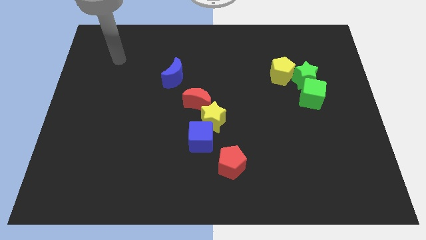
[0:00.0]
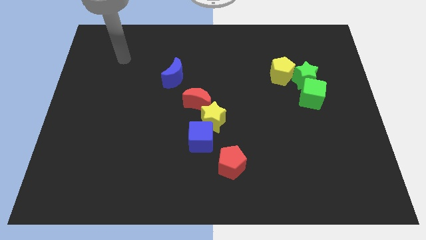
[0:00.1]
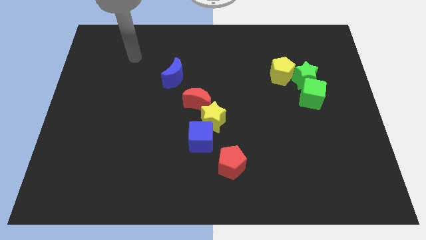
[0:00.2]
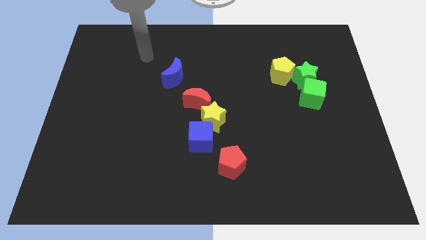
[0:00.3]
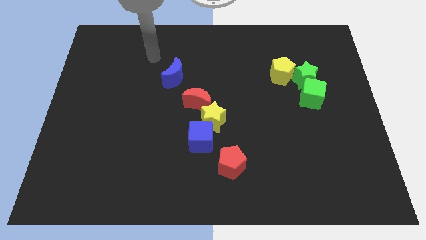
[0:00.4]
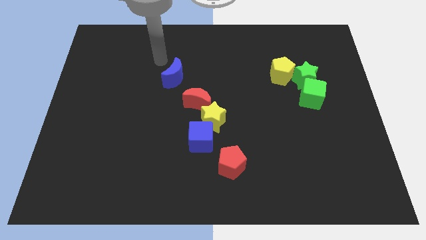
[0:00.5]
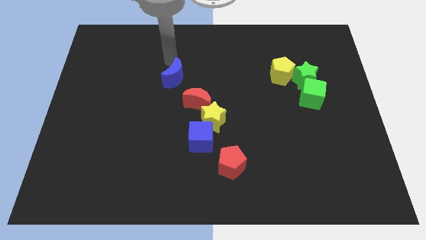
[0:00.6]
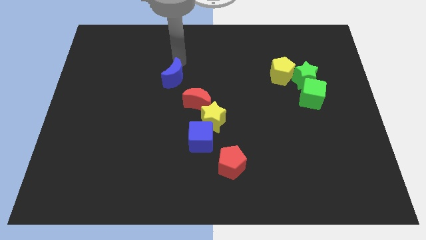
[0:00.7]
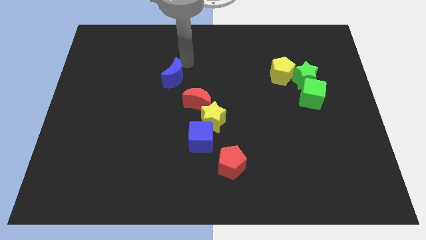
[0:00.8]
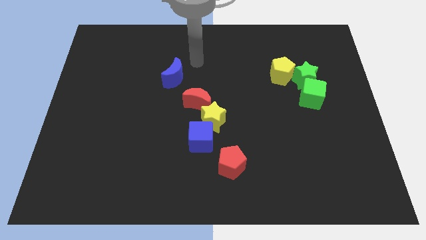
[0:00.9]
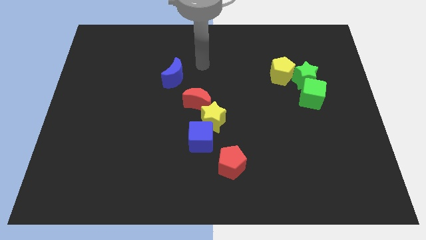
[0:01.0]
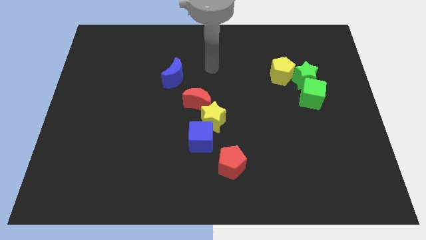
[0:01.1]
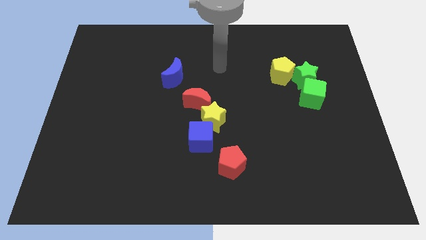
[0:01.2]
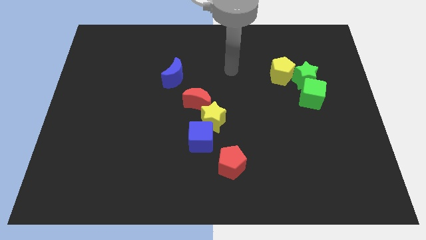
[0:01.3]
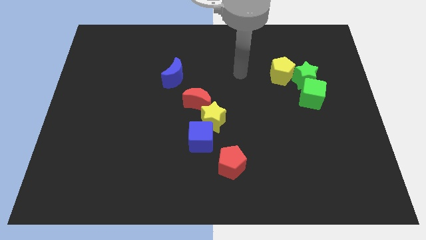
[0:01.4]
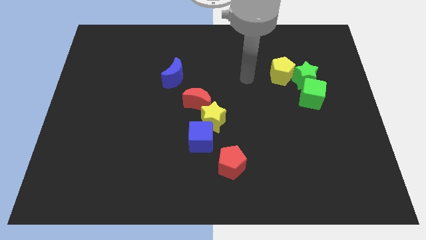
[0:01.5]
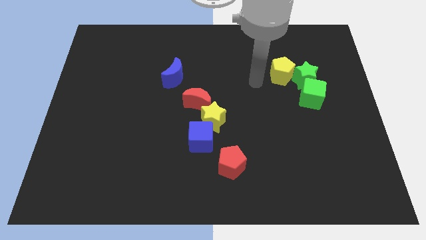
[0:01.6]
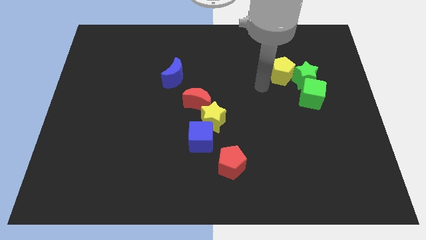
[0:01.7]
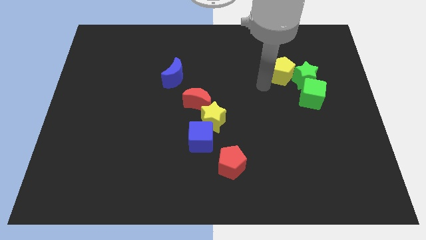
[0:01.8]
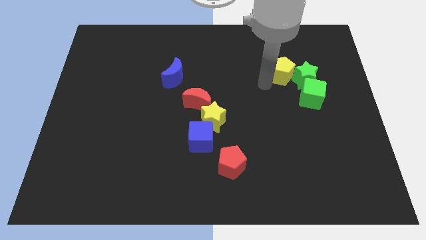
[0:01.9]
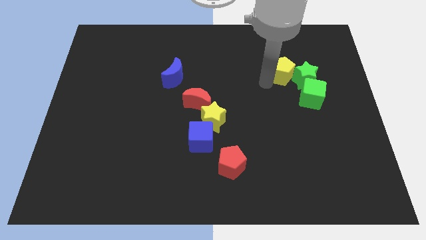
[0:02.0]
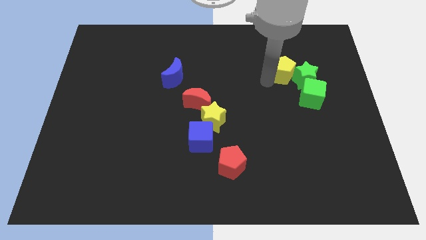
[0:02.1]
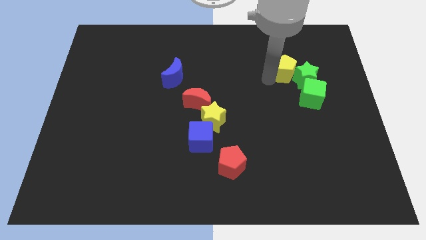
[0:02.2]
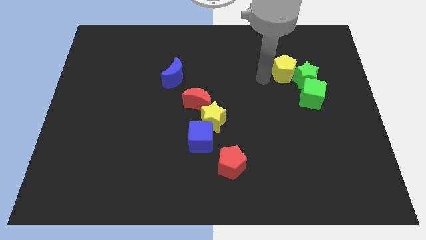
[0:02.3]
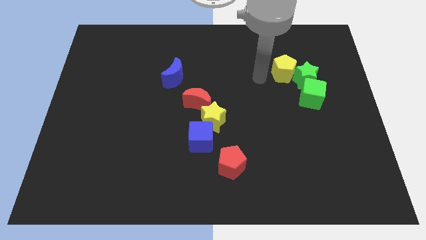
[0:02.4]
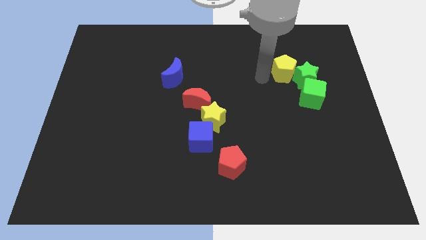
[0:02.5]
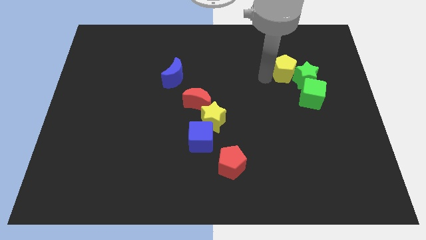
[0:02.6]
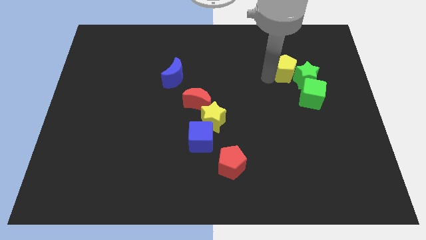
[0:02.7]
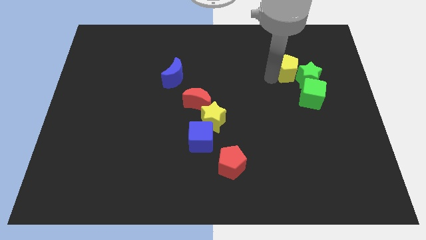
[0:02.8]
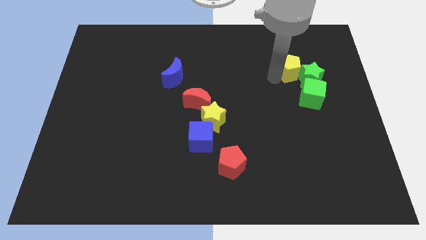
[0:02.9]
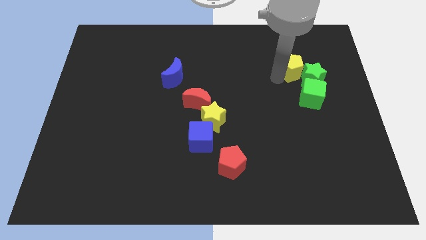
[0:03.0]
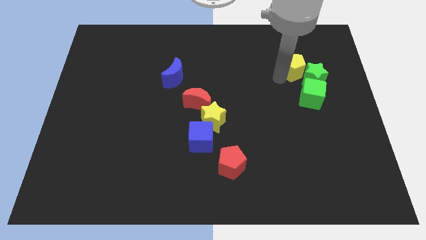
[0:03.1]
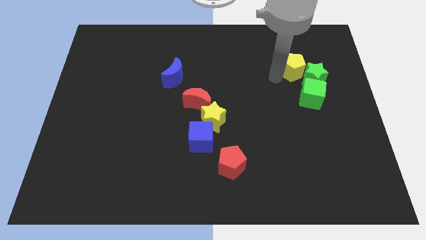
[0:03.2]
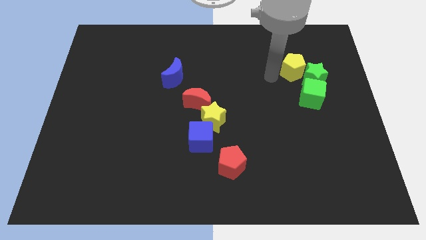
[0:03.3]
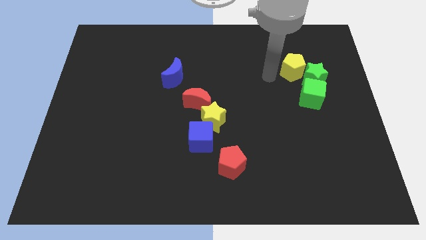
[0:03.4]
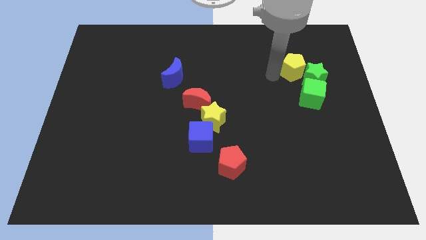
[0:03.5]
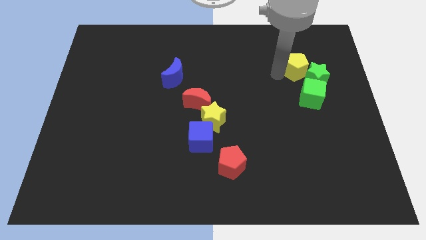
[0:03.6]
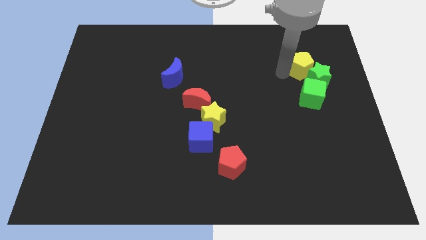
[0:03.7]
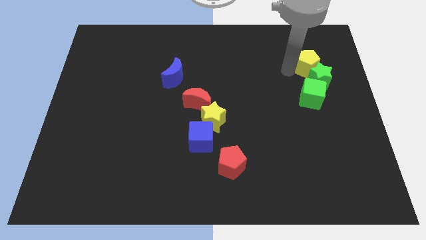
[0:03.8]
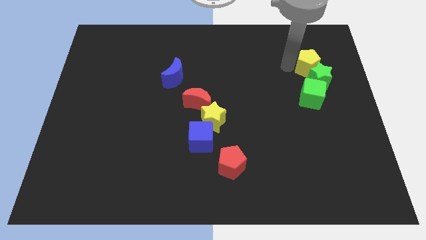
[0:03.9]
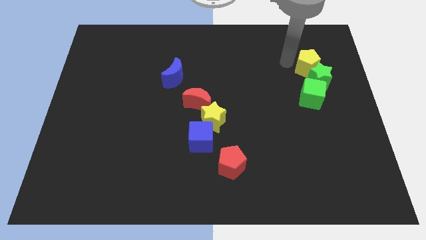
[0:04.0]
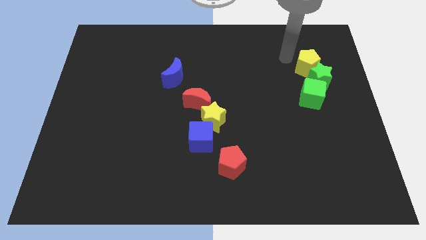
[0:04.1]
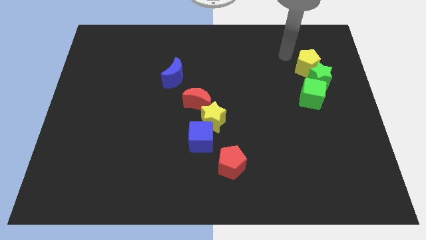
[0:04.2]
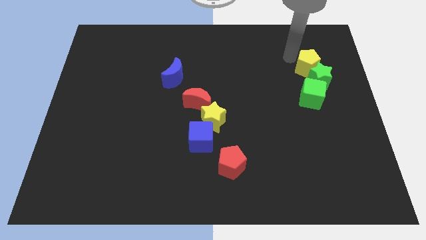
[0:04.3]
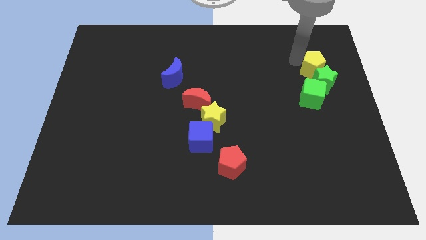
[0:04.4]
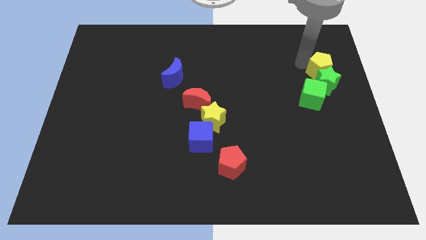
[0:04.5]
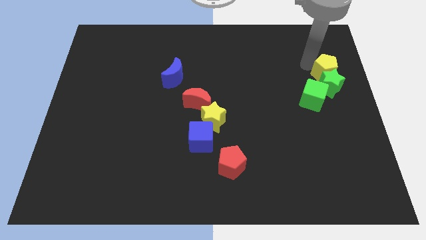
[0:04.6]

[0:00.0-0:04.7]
put the yellow pentagon to the right side of the board

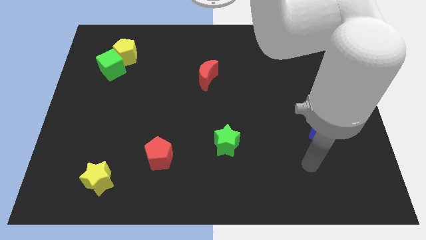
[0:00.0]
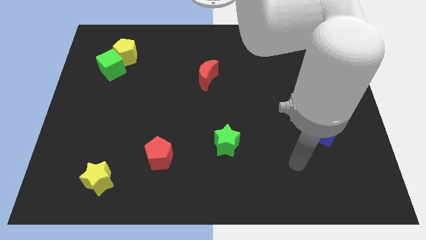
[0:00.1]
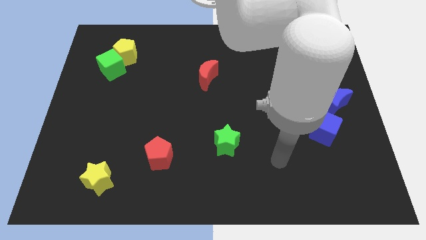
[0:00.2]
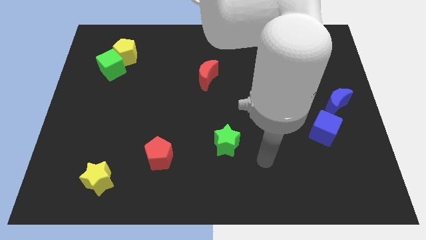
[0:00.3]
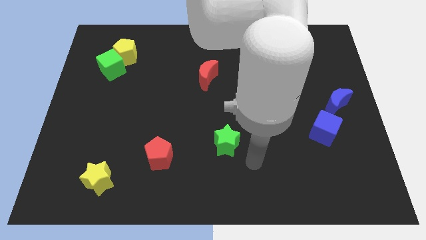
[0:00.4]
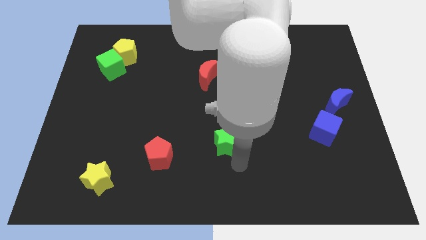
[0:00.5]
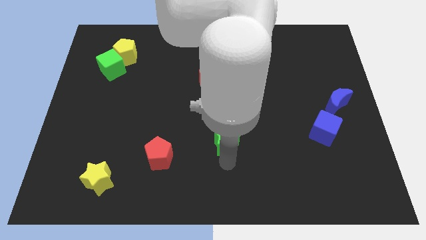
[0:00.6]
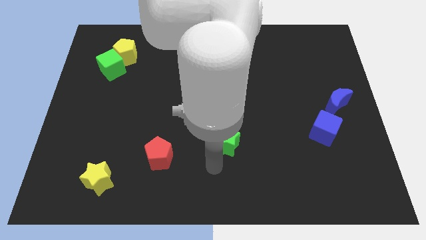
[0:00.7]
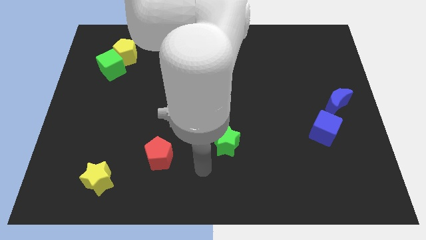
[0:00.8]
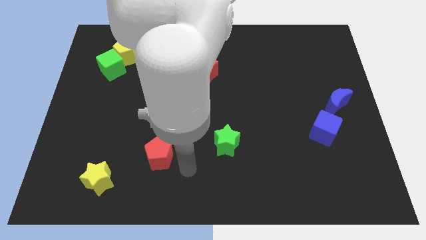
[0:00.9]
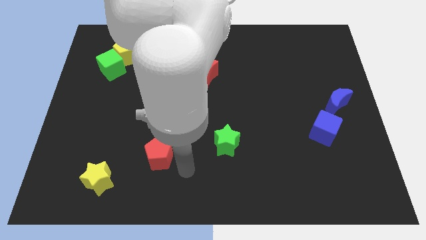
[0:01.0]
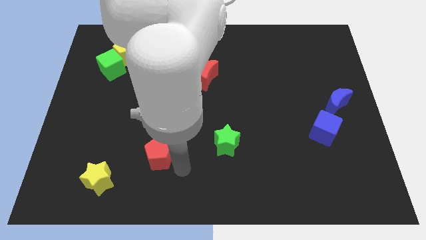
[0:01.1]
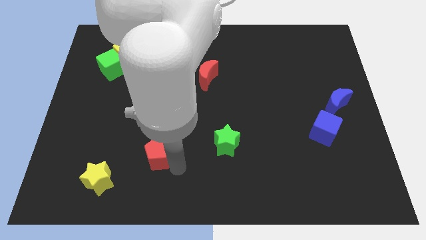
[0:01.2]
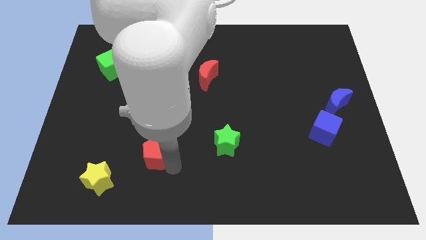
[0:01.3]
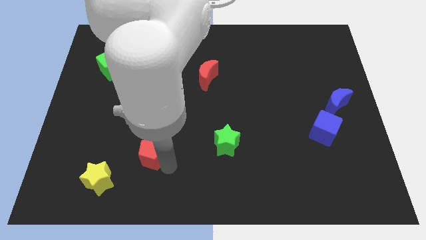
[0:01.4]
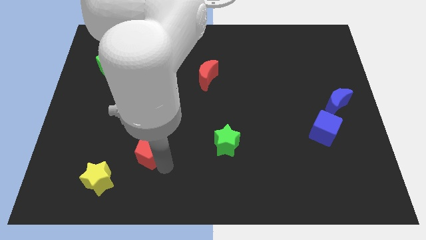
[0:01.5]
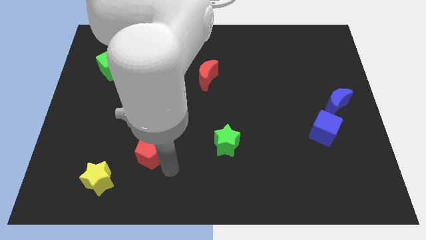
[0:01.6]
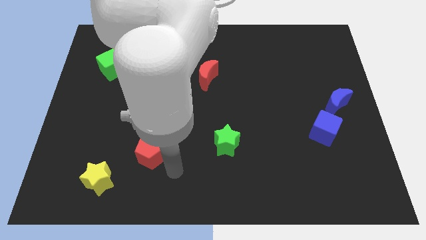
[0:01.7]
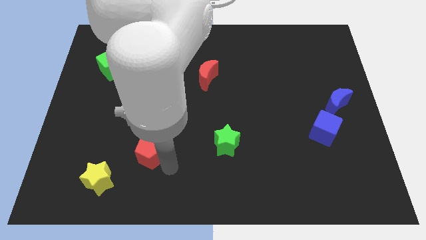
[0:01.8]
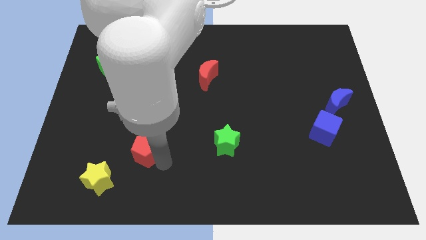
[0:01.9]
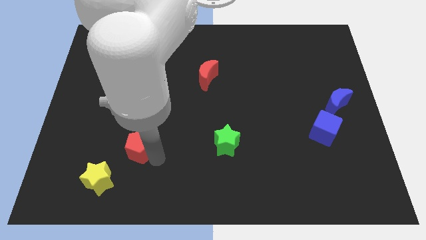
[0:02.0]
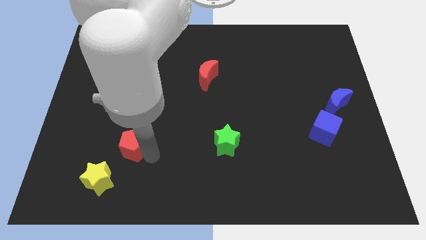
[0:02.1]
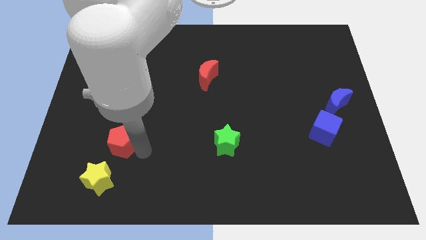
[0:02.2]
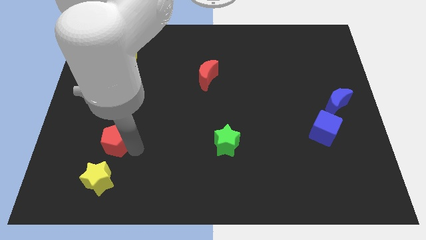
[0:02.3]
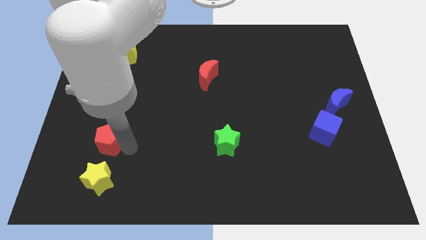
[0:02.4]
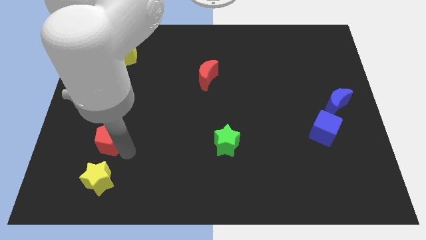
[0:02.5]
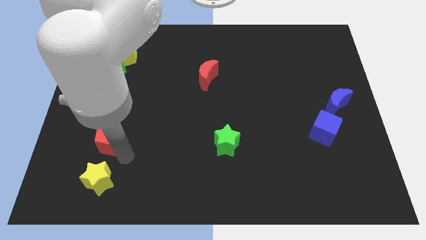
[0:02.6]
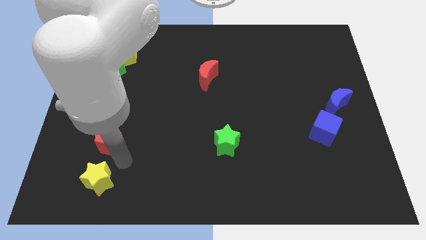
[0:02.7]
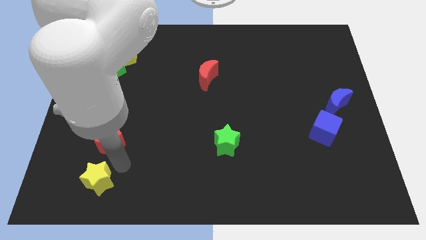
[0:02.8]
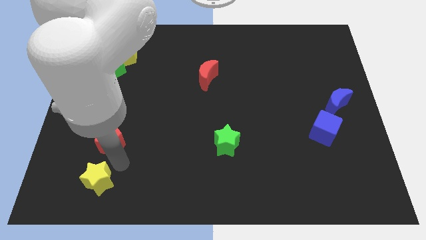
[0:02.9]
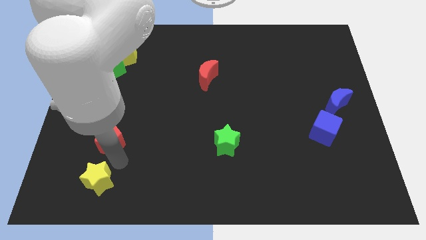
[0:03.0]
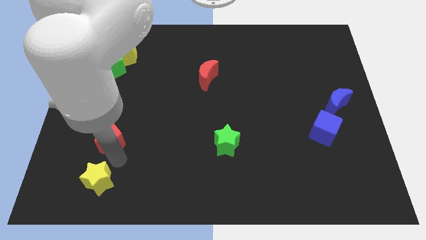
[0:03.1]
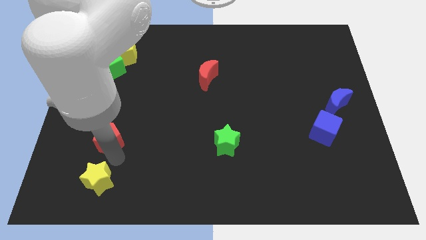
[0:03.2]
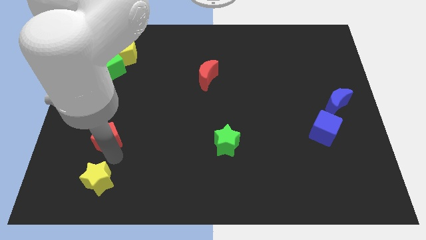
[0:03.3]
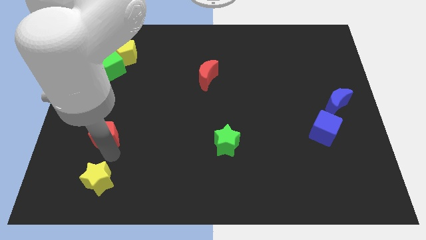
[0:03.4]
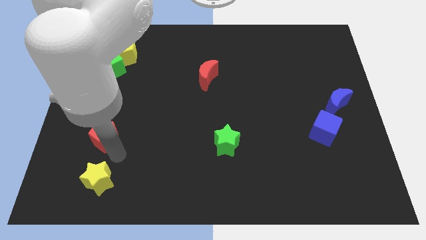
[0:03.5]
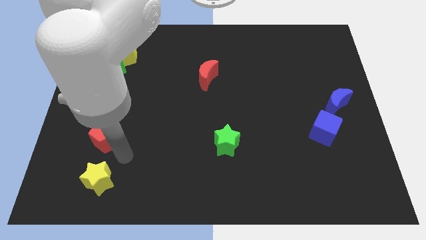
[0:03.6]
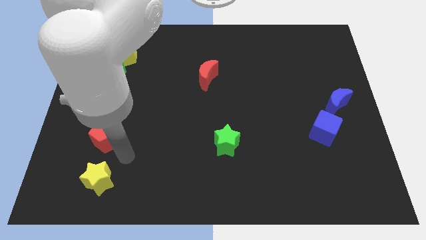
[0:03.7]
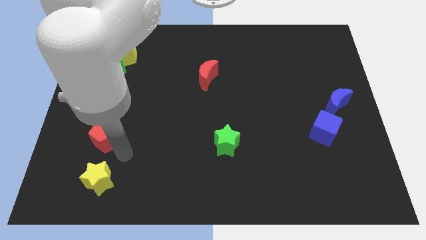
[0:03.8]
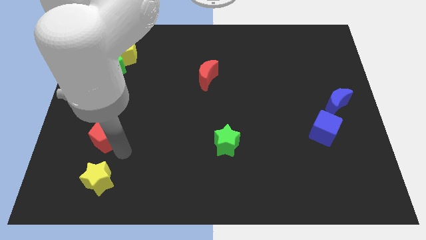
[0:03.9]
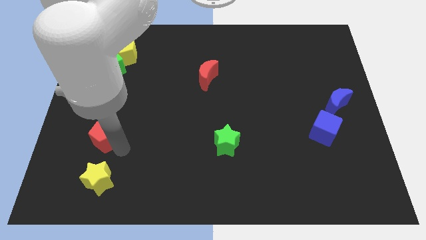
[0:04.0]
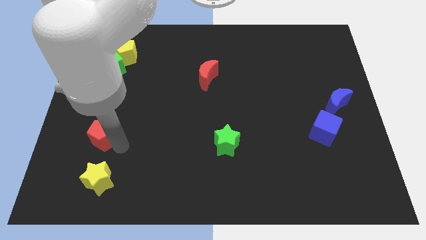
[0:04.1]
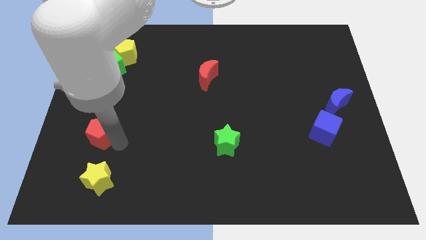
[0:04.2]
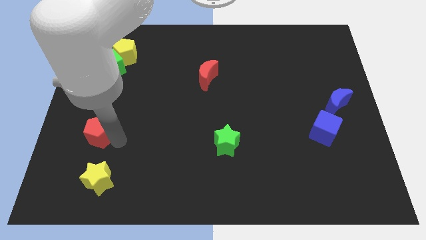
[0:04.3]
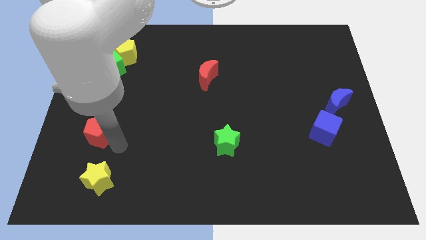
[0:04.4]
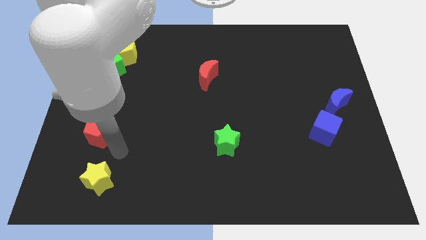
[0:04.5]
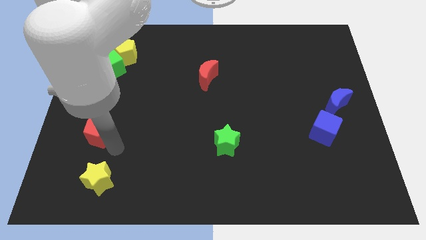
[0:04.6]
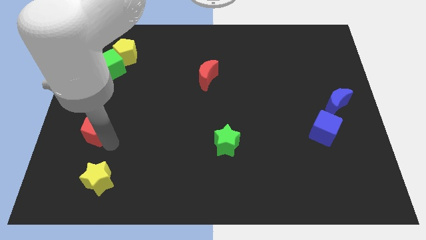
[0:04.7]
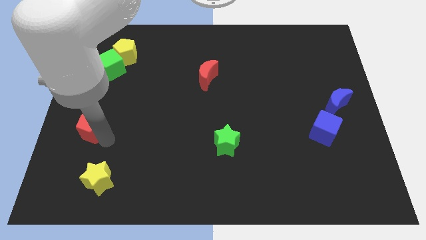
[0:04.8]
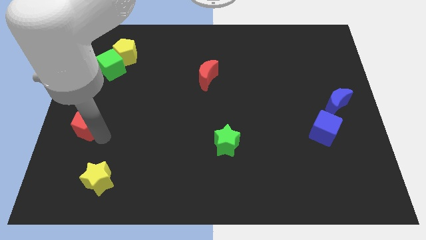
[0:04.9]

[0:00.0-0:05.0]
put the red pentagon to the center left
